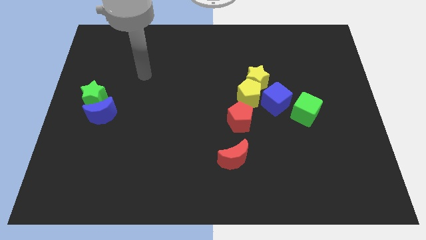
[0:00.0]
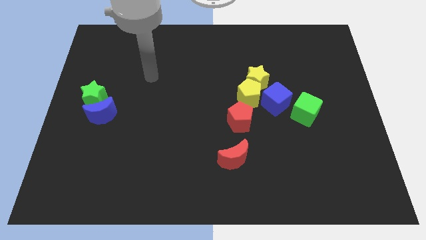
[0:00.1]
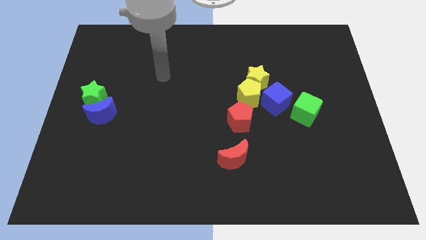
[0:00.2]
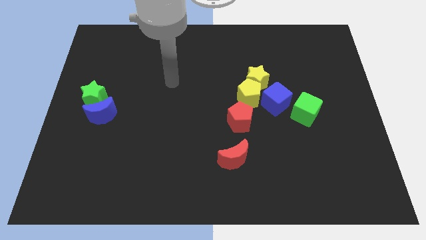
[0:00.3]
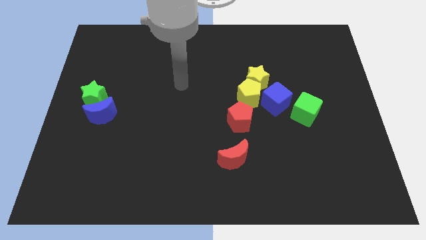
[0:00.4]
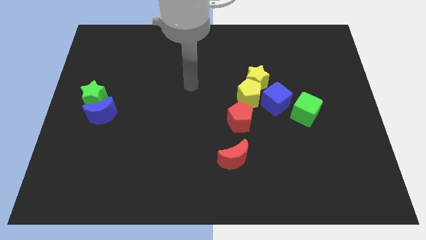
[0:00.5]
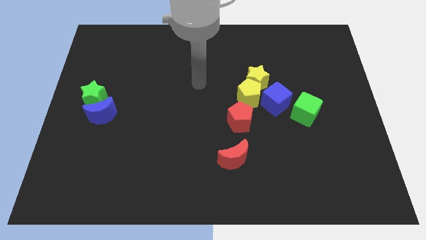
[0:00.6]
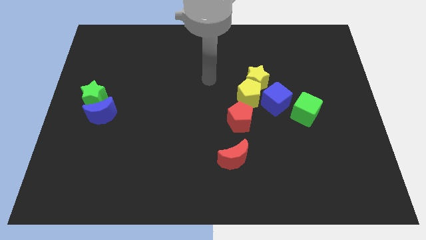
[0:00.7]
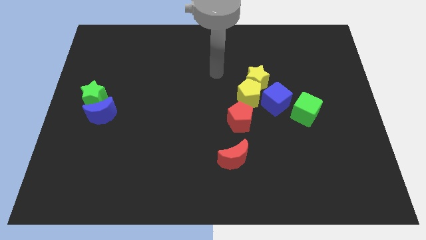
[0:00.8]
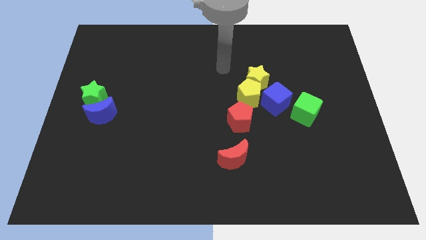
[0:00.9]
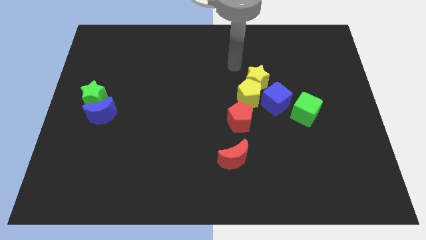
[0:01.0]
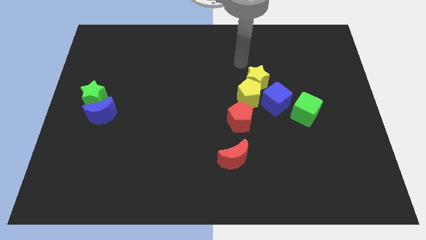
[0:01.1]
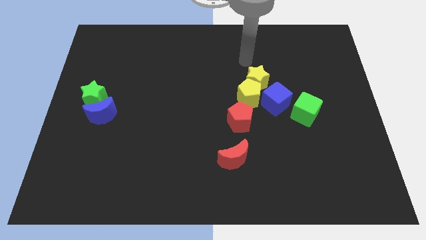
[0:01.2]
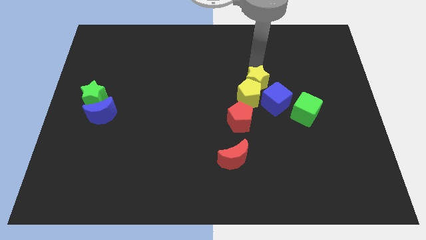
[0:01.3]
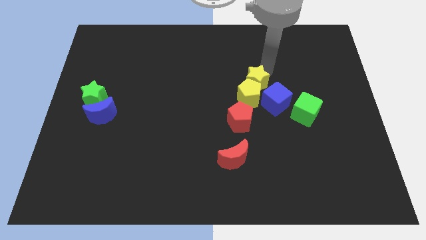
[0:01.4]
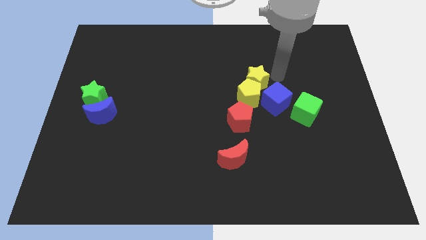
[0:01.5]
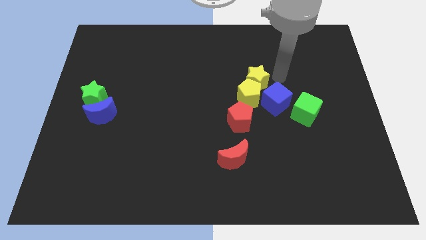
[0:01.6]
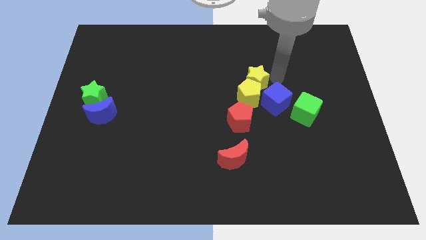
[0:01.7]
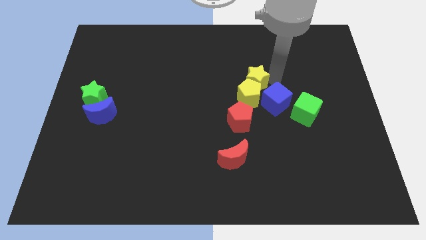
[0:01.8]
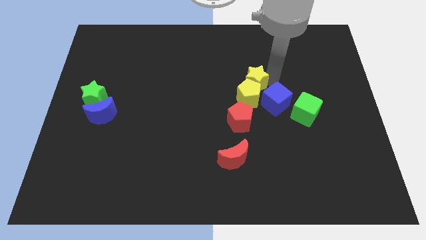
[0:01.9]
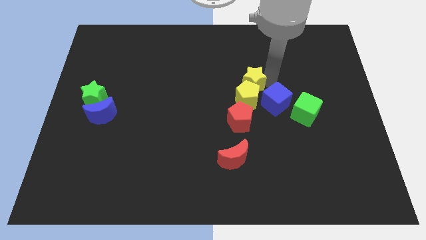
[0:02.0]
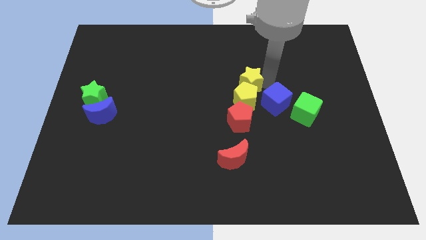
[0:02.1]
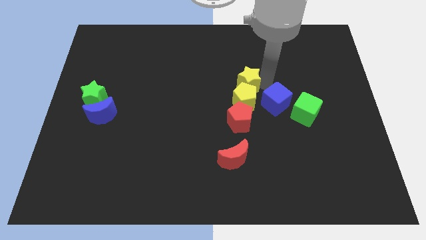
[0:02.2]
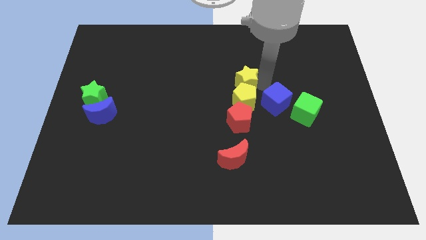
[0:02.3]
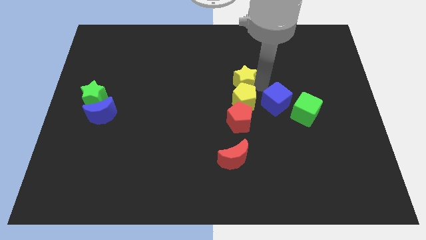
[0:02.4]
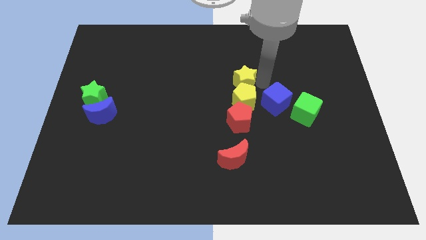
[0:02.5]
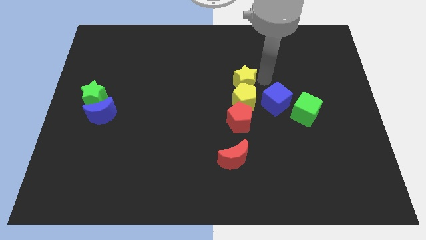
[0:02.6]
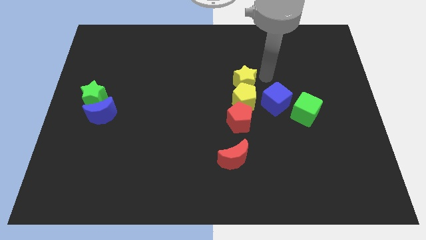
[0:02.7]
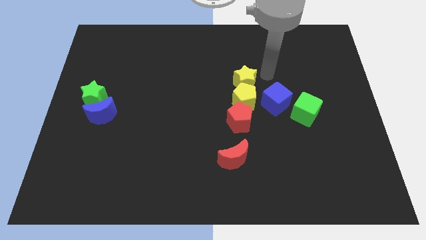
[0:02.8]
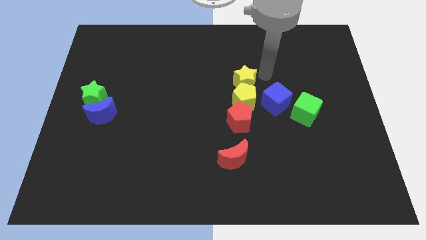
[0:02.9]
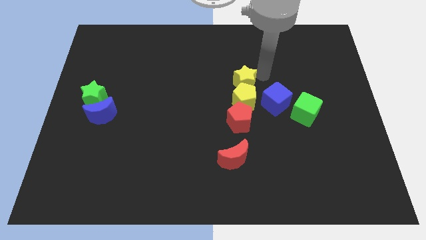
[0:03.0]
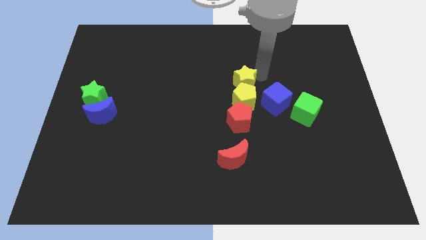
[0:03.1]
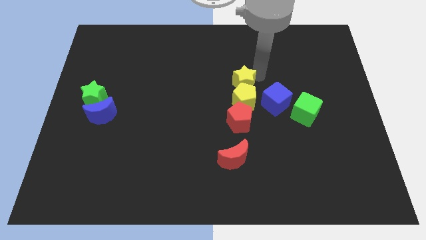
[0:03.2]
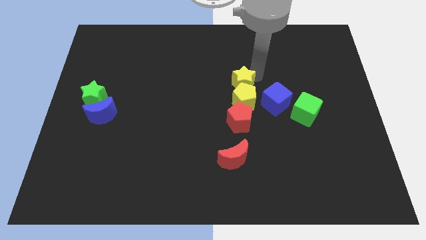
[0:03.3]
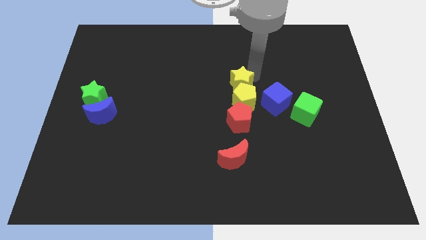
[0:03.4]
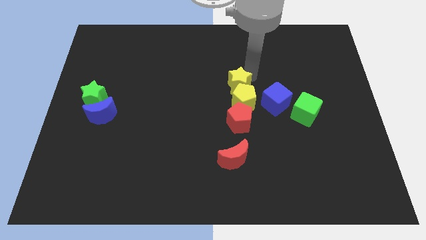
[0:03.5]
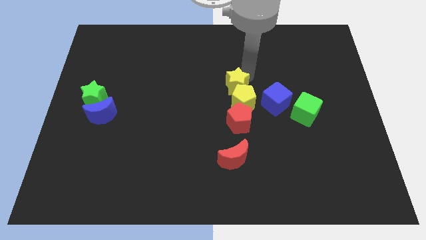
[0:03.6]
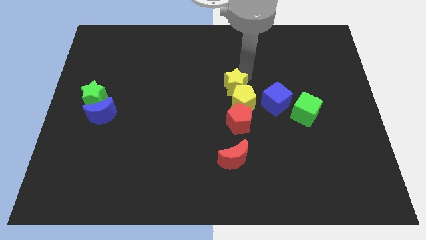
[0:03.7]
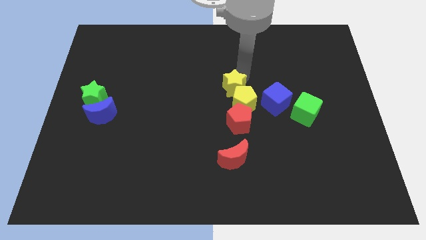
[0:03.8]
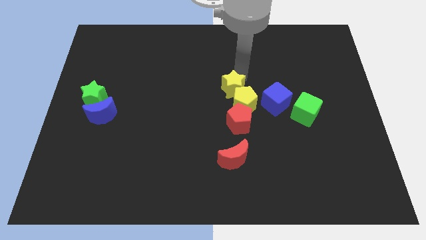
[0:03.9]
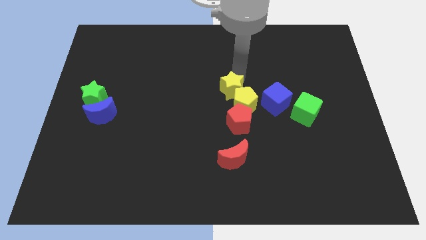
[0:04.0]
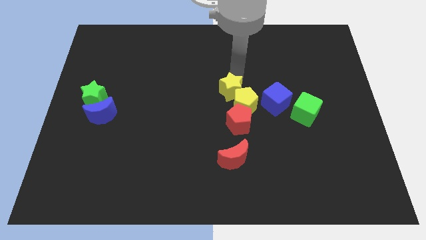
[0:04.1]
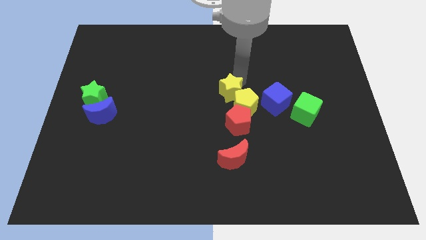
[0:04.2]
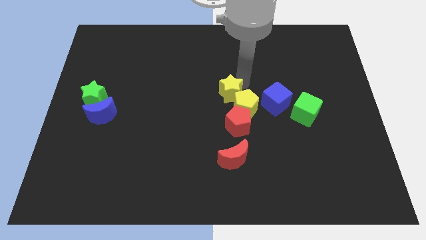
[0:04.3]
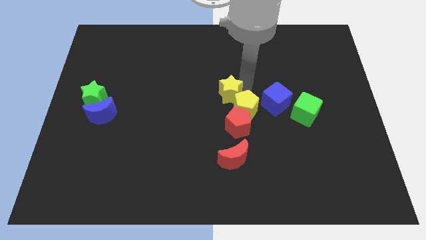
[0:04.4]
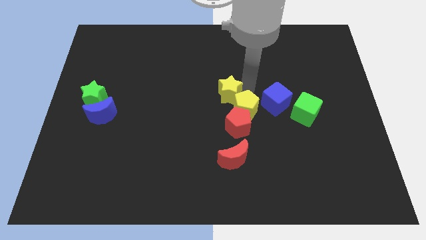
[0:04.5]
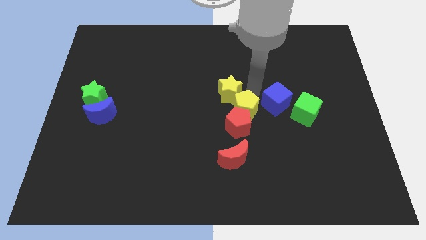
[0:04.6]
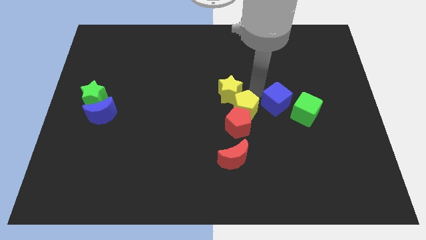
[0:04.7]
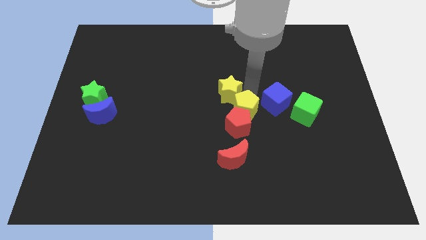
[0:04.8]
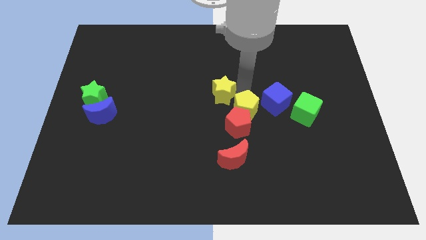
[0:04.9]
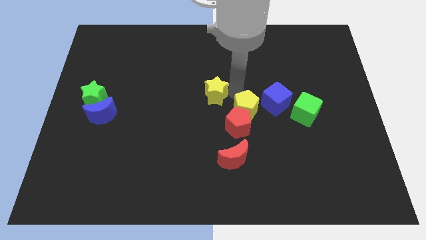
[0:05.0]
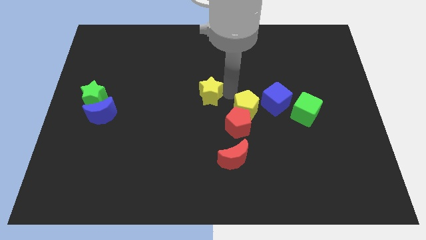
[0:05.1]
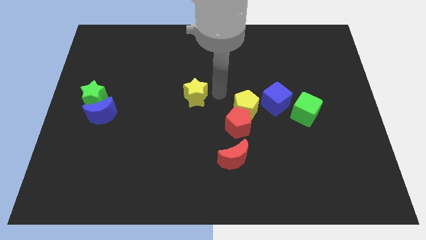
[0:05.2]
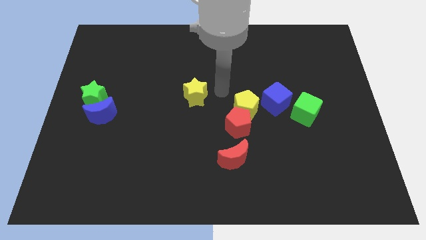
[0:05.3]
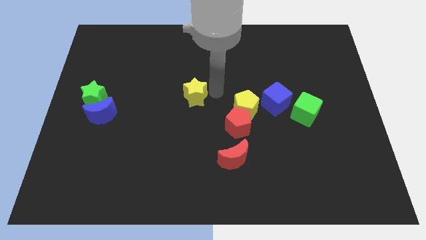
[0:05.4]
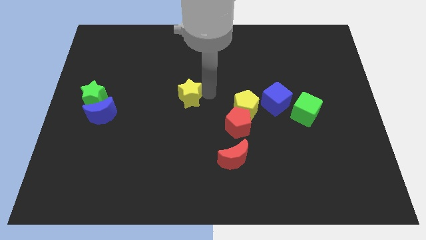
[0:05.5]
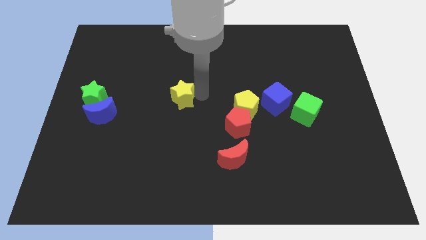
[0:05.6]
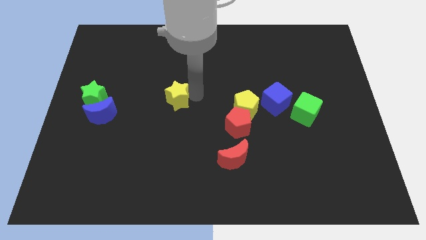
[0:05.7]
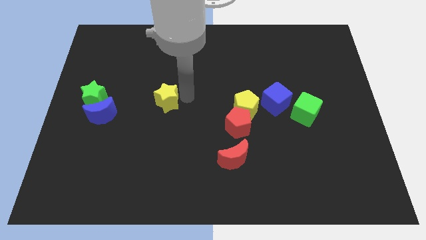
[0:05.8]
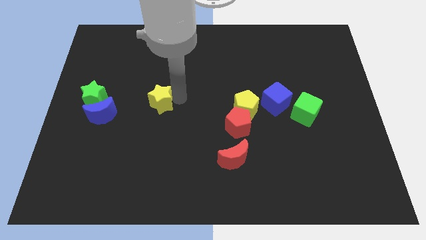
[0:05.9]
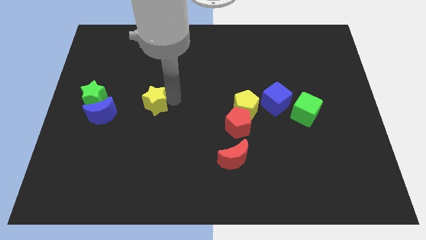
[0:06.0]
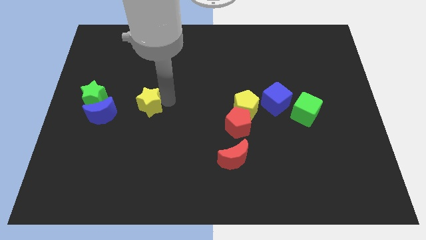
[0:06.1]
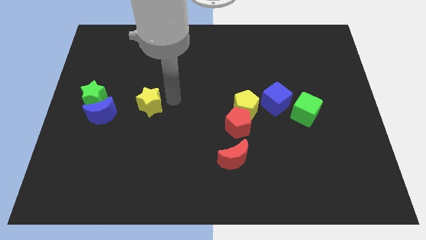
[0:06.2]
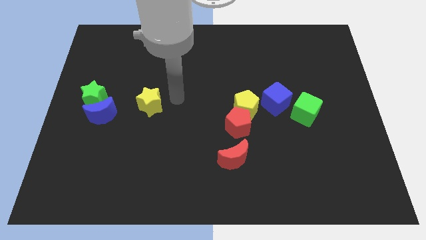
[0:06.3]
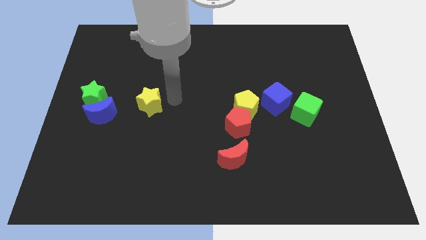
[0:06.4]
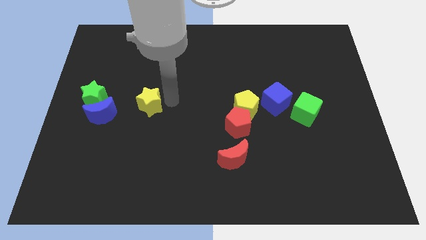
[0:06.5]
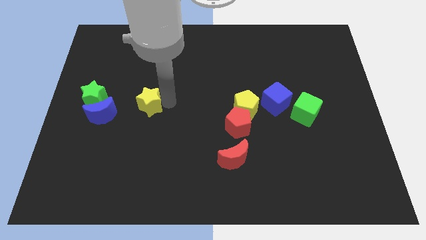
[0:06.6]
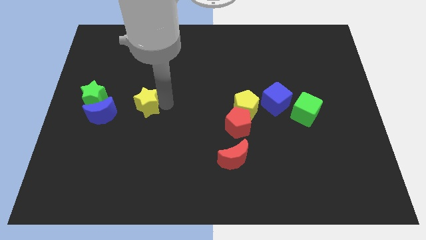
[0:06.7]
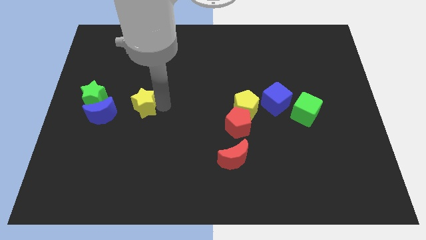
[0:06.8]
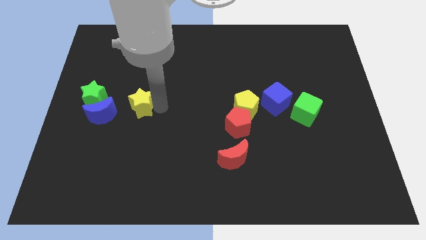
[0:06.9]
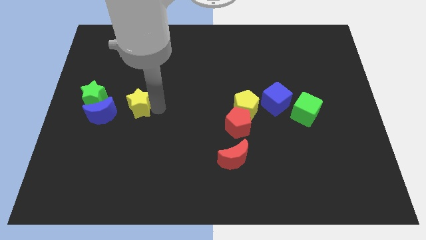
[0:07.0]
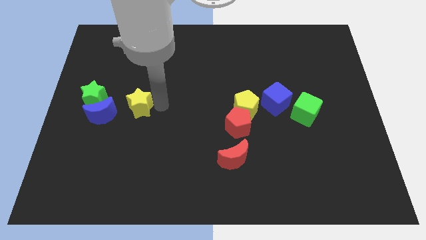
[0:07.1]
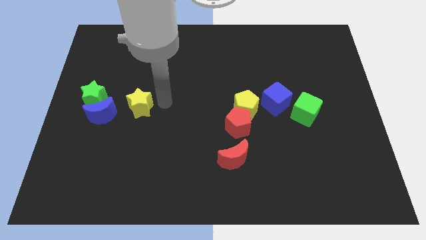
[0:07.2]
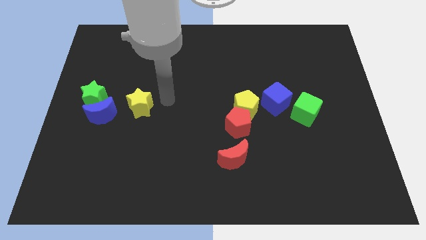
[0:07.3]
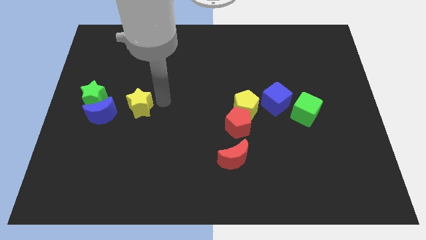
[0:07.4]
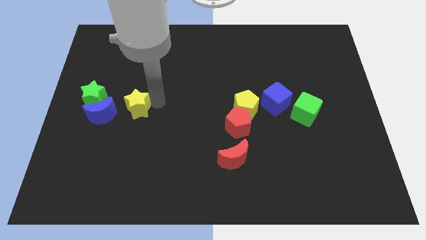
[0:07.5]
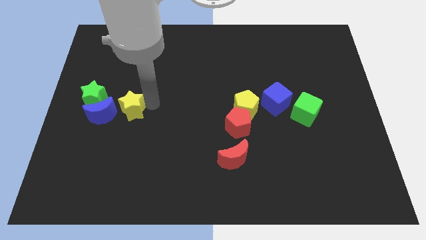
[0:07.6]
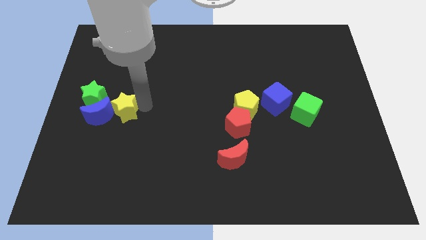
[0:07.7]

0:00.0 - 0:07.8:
push the yellow star to the blue moon
